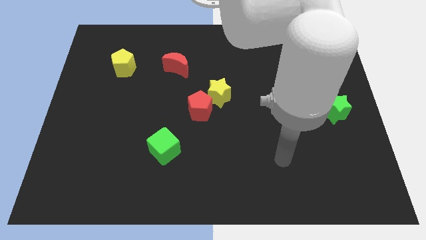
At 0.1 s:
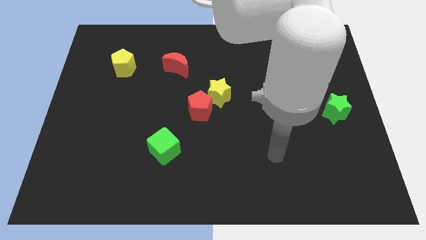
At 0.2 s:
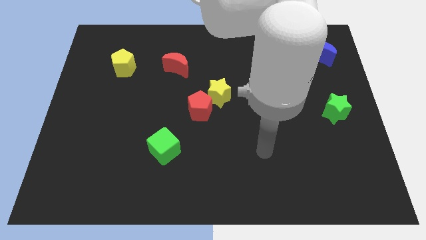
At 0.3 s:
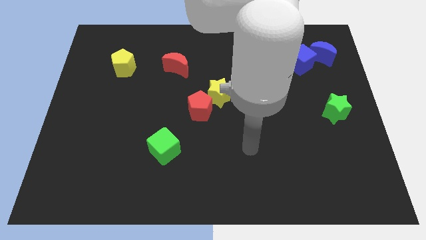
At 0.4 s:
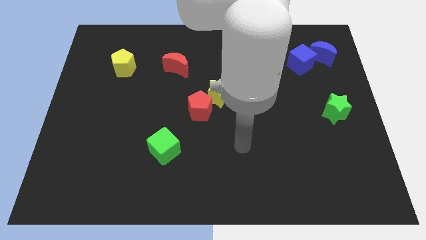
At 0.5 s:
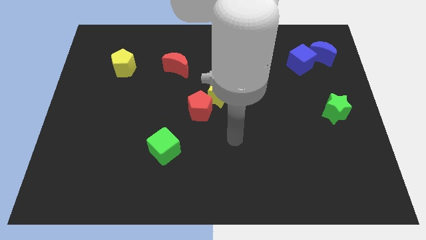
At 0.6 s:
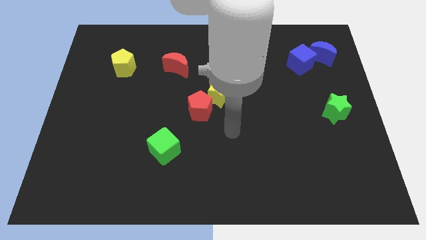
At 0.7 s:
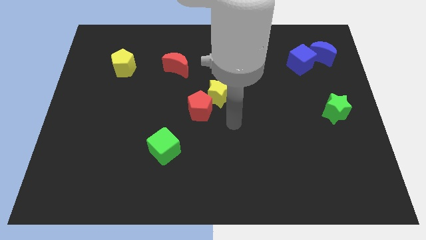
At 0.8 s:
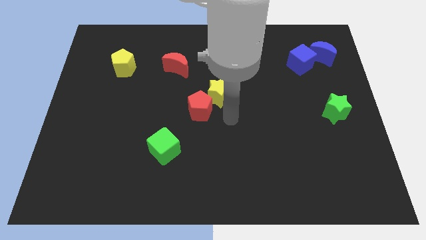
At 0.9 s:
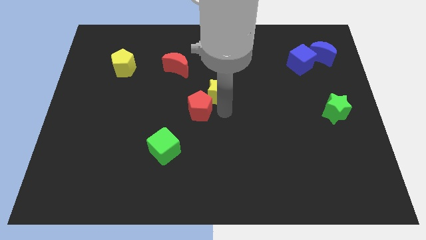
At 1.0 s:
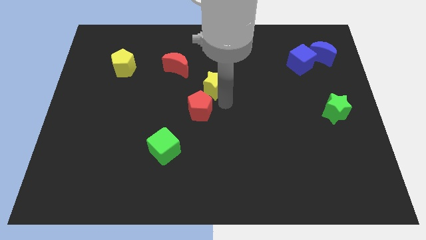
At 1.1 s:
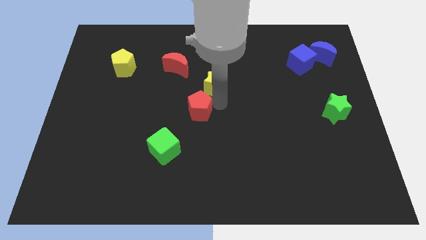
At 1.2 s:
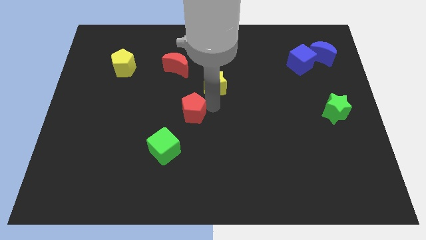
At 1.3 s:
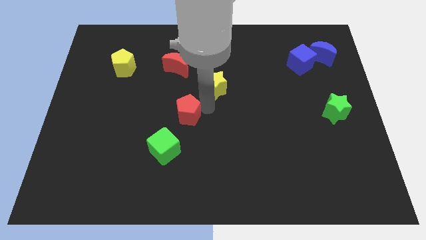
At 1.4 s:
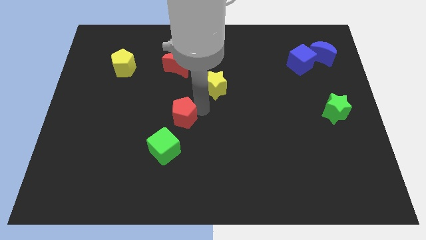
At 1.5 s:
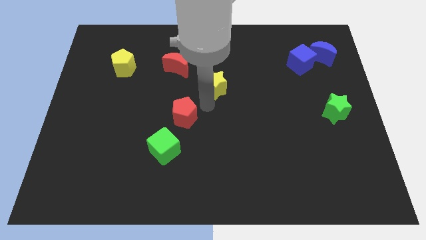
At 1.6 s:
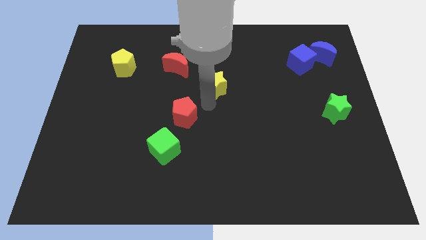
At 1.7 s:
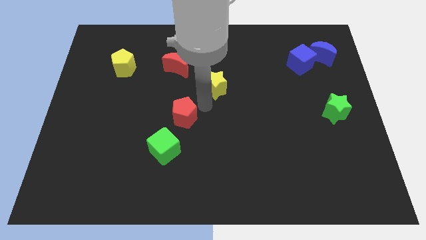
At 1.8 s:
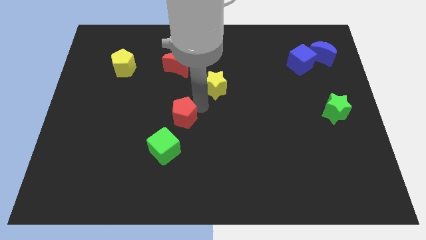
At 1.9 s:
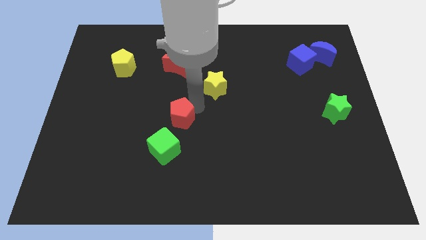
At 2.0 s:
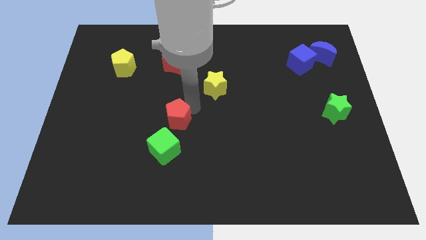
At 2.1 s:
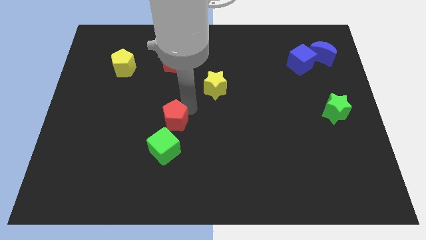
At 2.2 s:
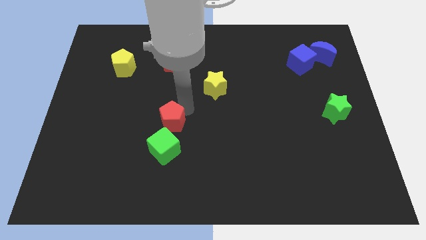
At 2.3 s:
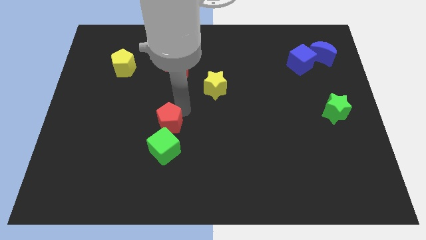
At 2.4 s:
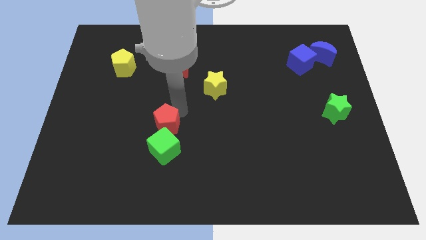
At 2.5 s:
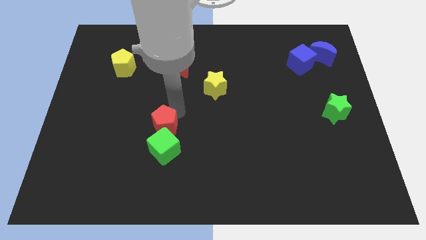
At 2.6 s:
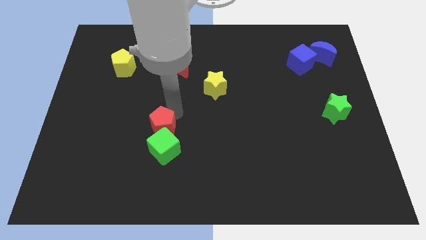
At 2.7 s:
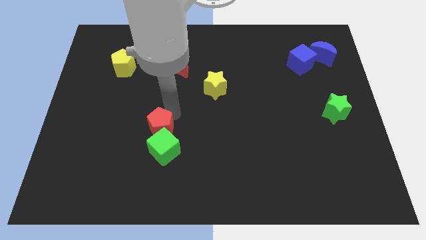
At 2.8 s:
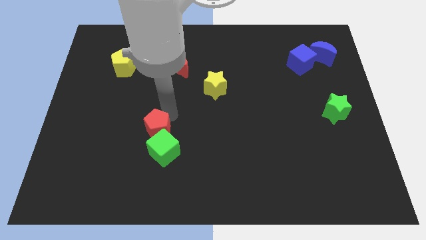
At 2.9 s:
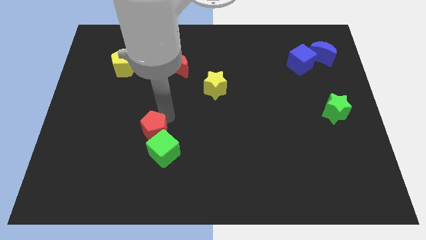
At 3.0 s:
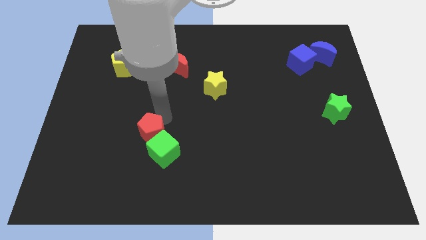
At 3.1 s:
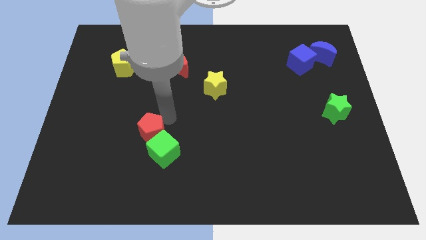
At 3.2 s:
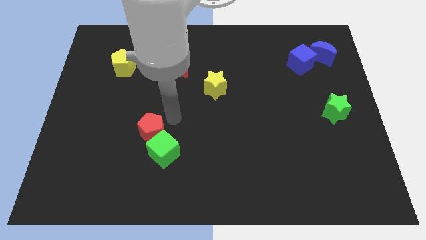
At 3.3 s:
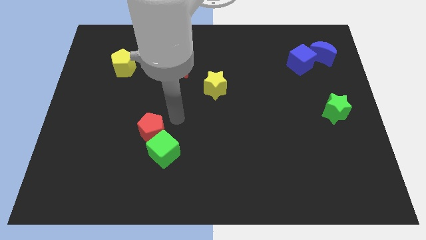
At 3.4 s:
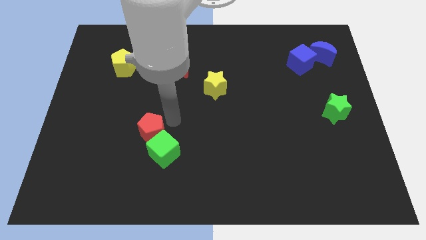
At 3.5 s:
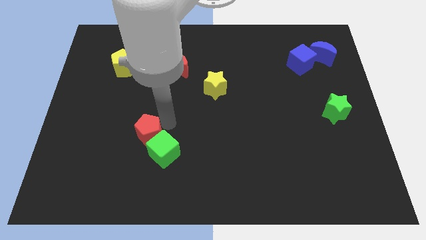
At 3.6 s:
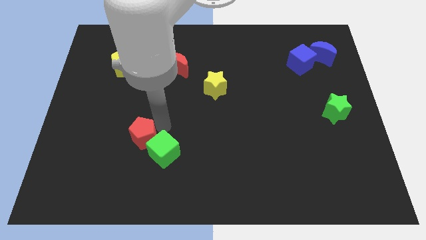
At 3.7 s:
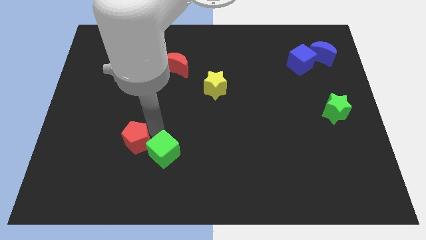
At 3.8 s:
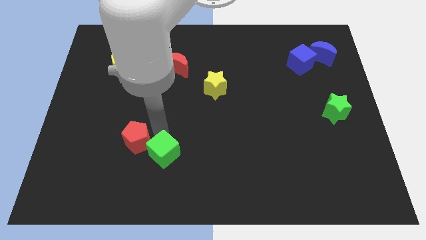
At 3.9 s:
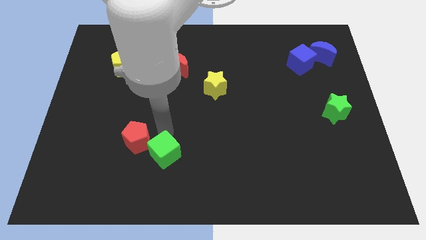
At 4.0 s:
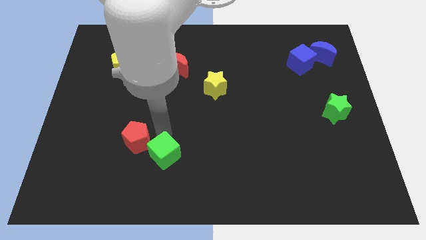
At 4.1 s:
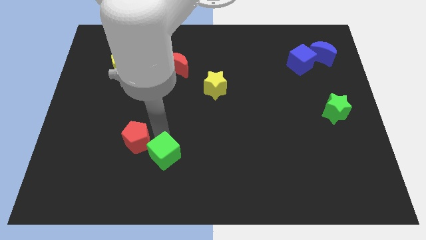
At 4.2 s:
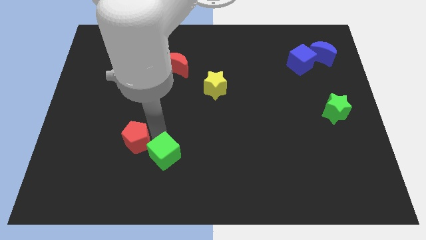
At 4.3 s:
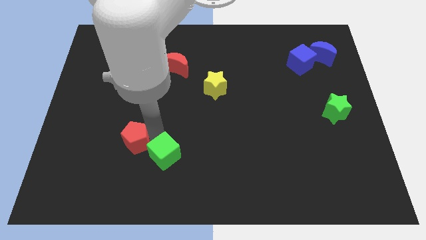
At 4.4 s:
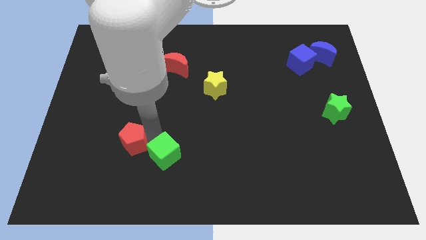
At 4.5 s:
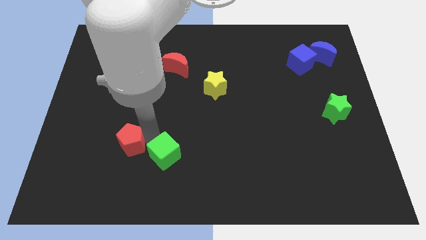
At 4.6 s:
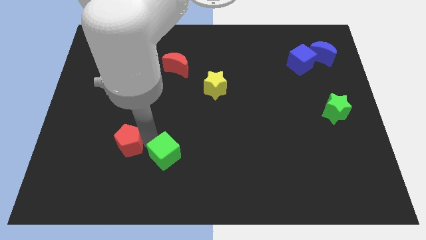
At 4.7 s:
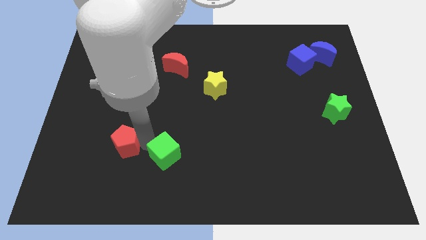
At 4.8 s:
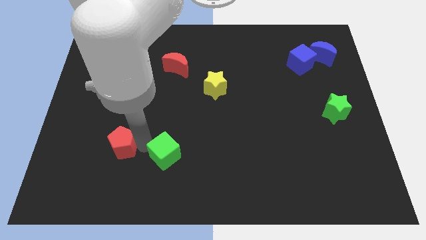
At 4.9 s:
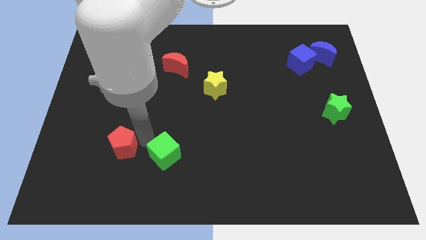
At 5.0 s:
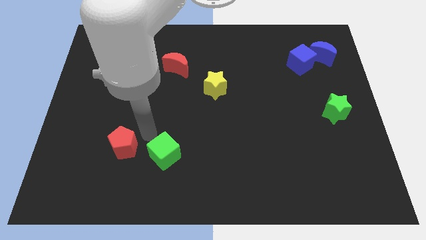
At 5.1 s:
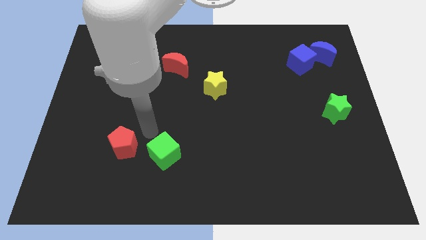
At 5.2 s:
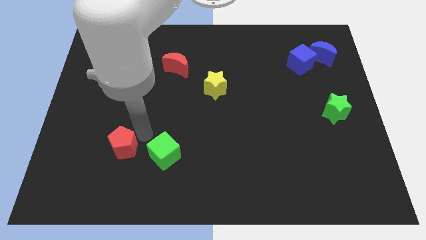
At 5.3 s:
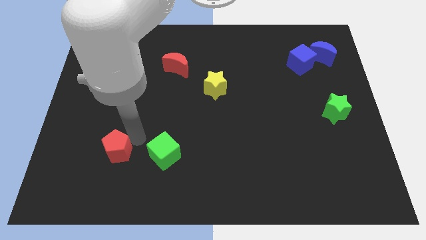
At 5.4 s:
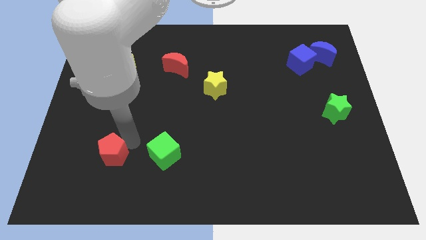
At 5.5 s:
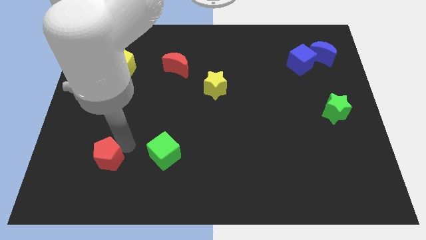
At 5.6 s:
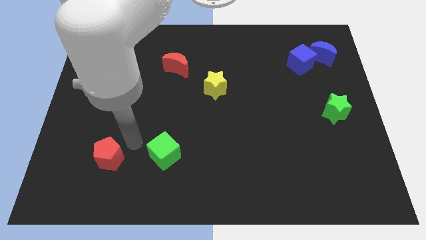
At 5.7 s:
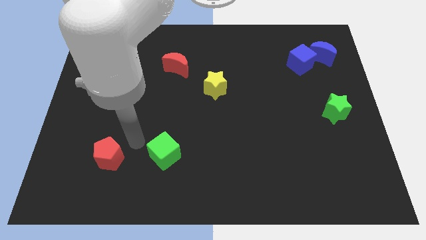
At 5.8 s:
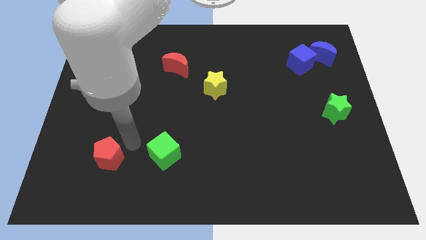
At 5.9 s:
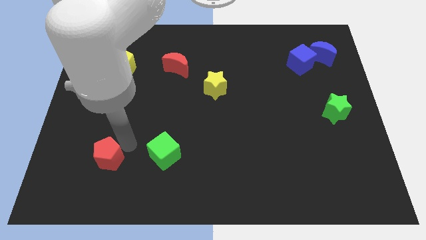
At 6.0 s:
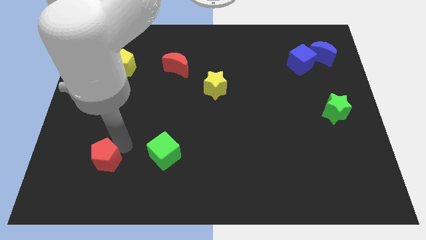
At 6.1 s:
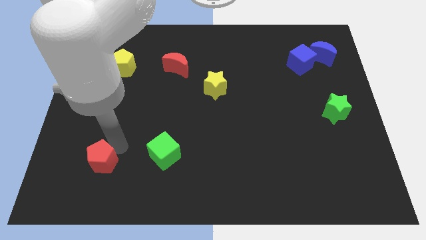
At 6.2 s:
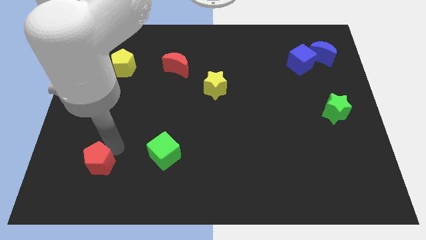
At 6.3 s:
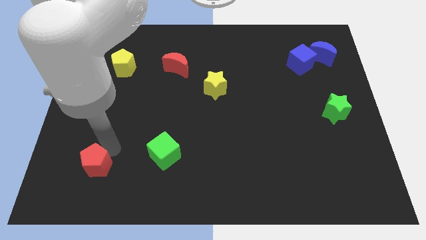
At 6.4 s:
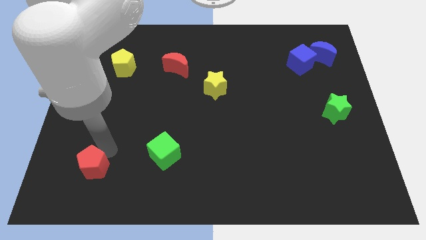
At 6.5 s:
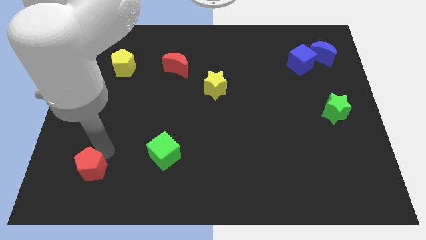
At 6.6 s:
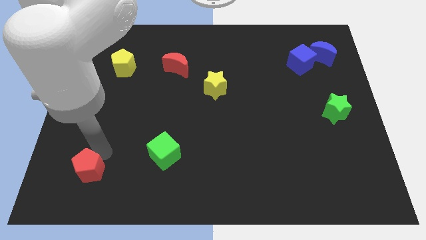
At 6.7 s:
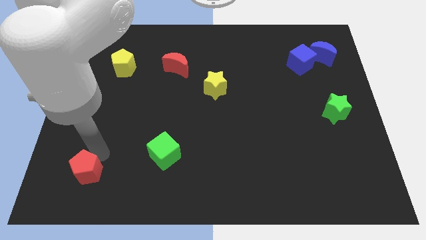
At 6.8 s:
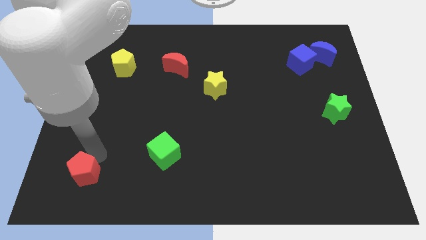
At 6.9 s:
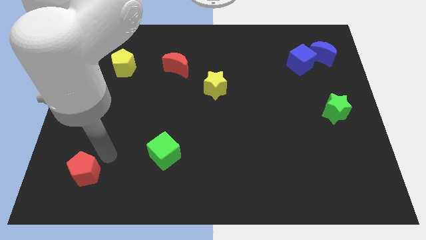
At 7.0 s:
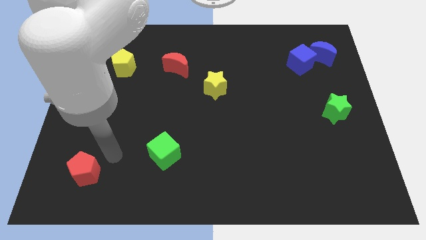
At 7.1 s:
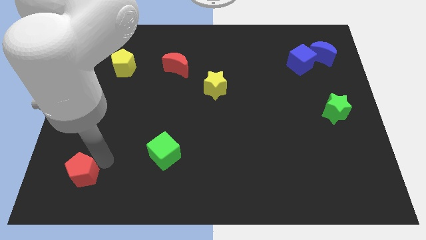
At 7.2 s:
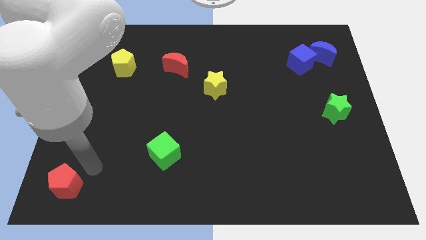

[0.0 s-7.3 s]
push the red pentagon to the lower left corner

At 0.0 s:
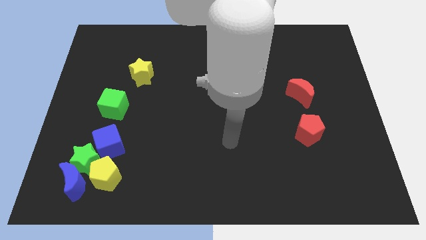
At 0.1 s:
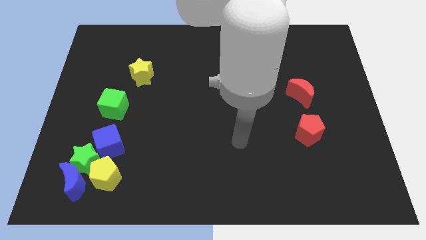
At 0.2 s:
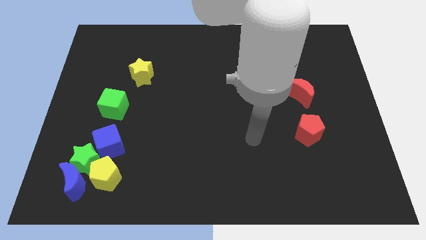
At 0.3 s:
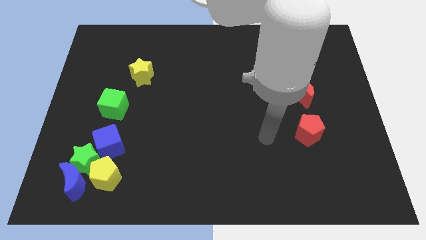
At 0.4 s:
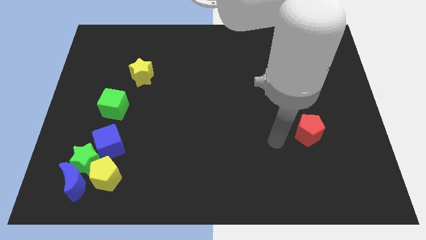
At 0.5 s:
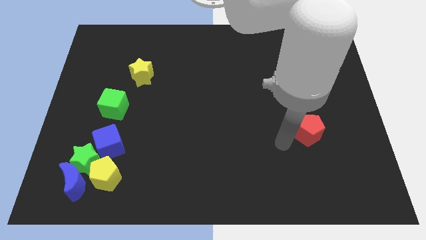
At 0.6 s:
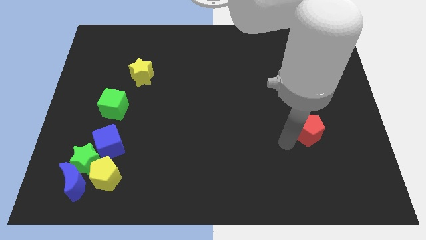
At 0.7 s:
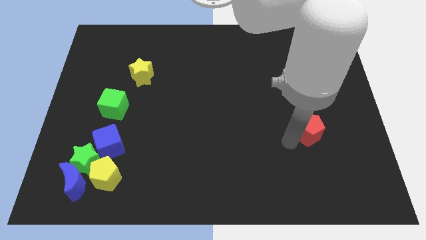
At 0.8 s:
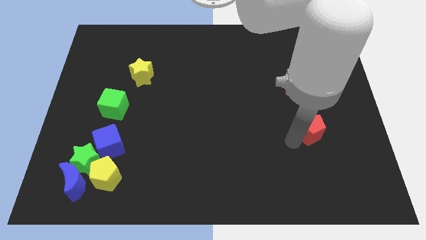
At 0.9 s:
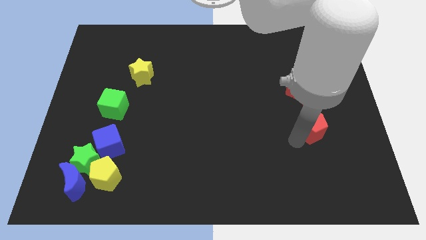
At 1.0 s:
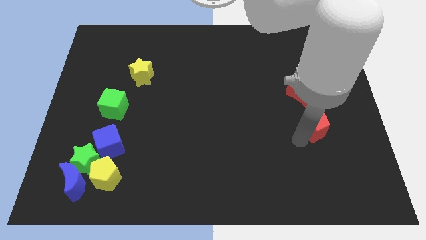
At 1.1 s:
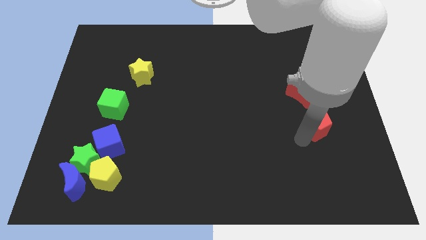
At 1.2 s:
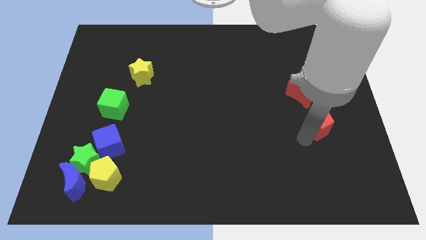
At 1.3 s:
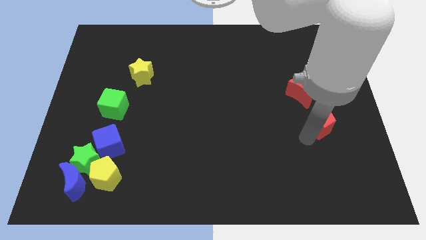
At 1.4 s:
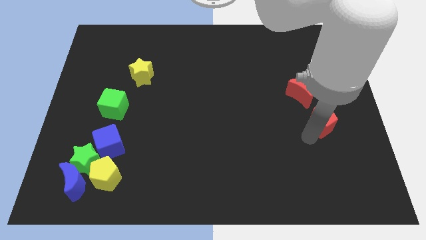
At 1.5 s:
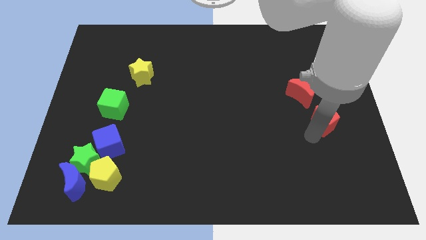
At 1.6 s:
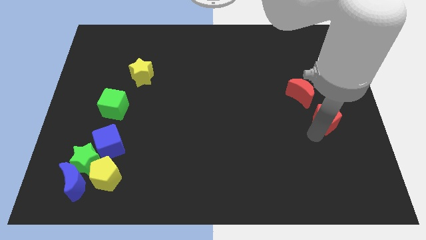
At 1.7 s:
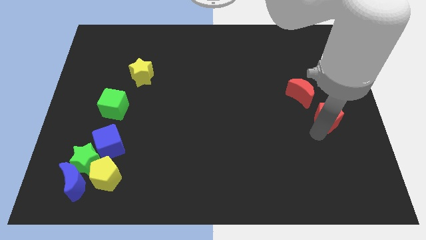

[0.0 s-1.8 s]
put the red pentagon to the center right
